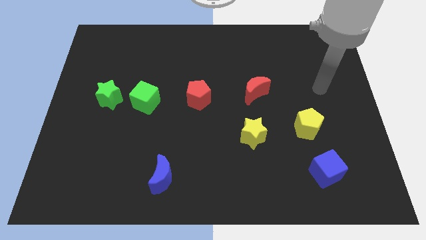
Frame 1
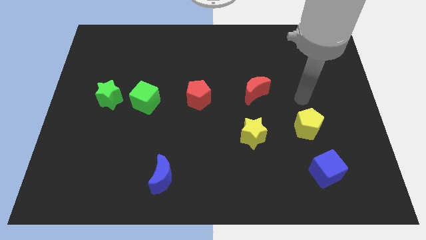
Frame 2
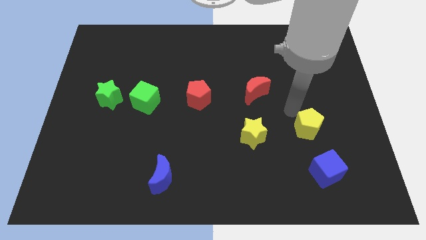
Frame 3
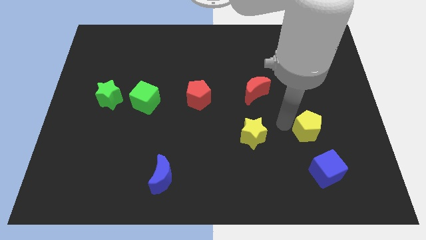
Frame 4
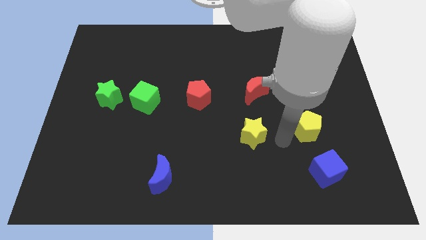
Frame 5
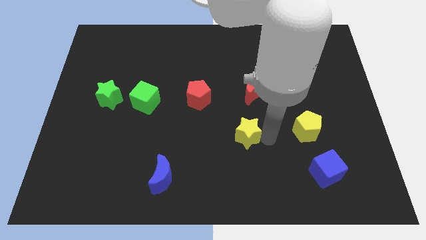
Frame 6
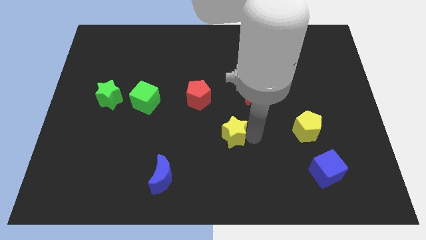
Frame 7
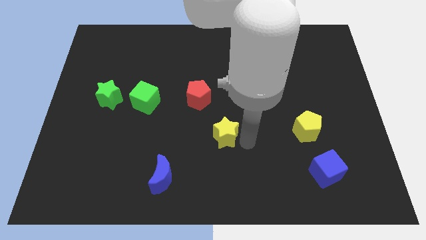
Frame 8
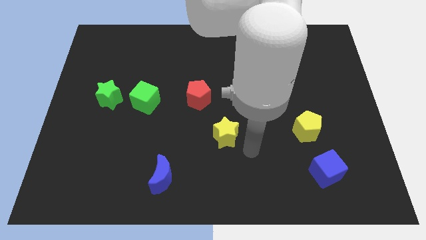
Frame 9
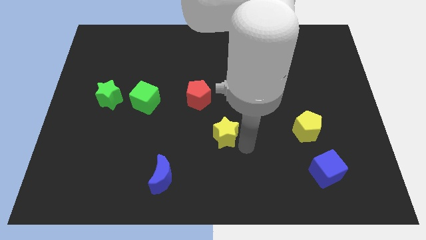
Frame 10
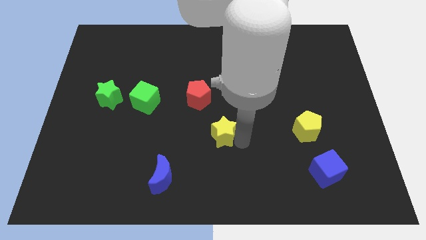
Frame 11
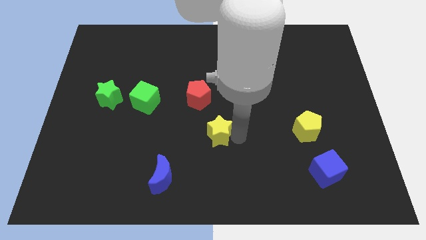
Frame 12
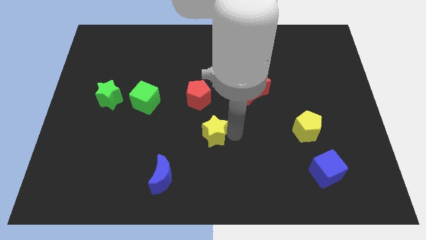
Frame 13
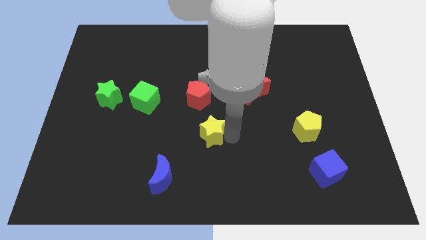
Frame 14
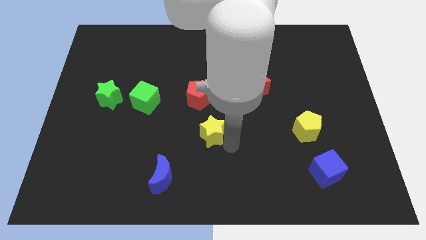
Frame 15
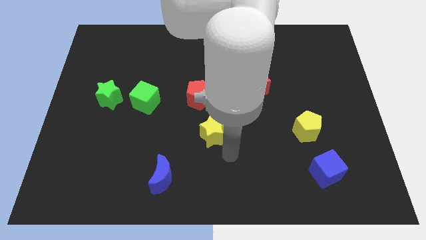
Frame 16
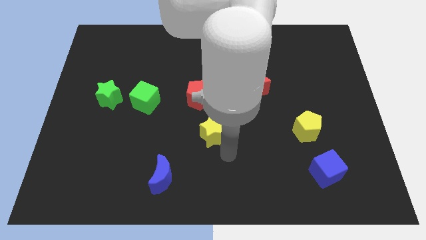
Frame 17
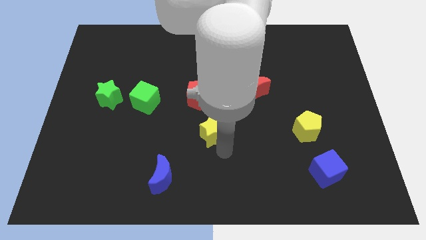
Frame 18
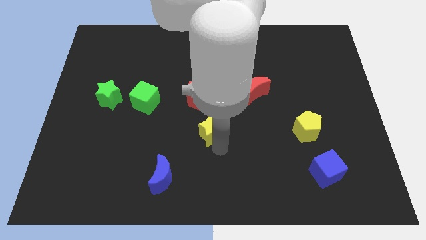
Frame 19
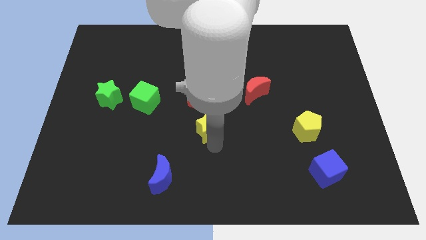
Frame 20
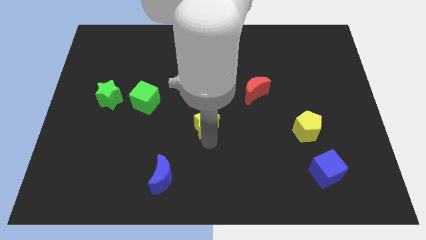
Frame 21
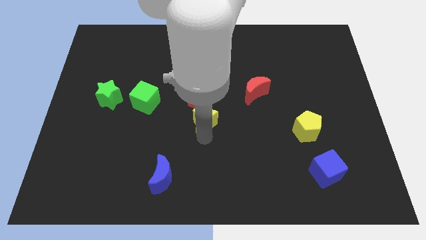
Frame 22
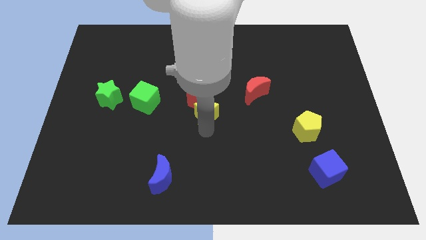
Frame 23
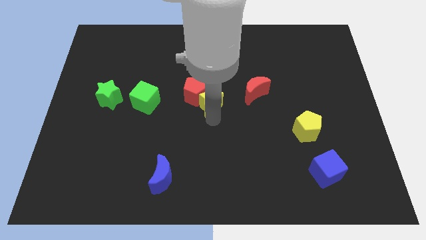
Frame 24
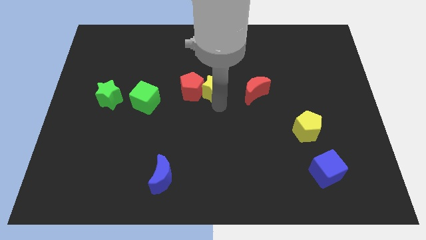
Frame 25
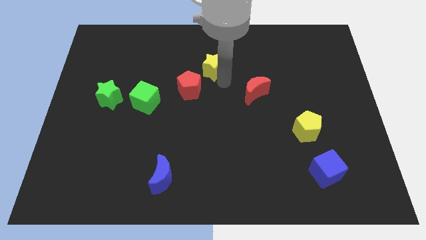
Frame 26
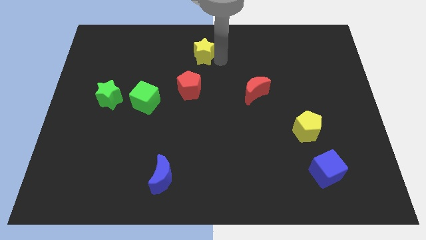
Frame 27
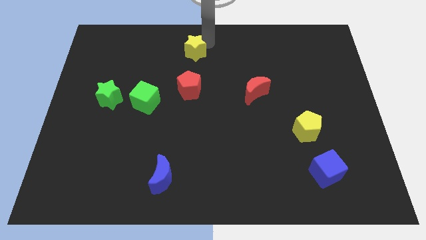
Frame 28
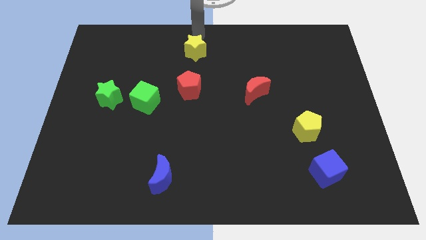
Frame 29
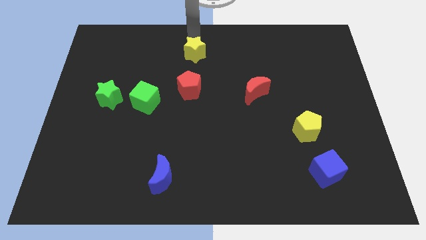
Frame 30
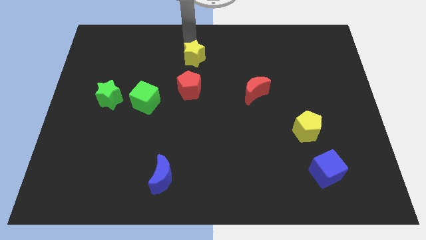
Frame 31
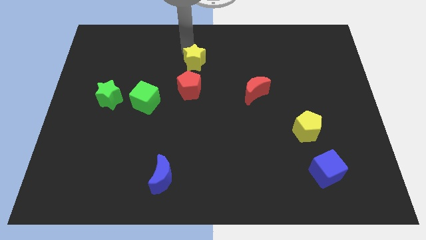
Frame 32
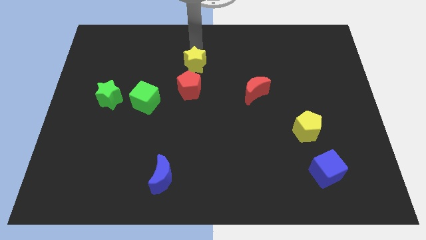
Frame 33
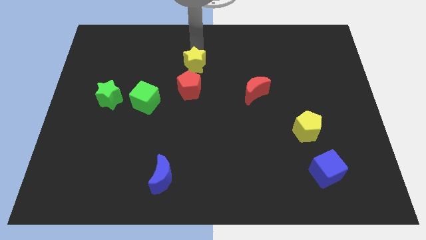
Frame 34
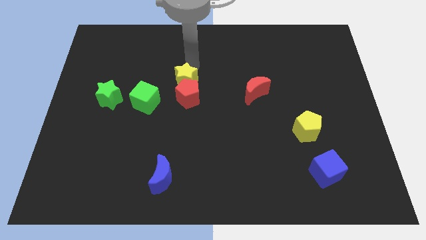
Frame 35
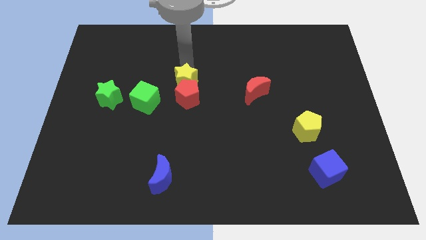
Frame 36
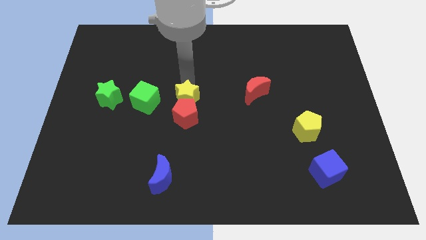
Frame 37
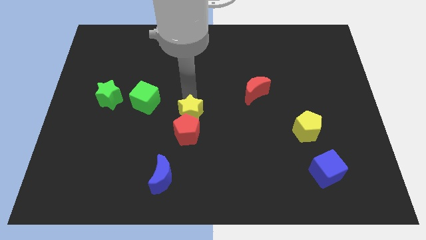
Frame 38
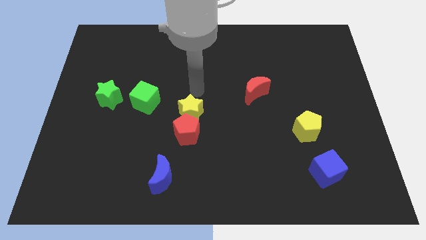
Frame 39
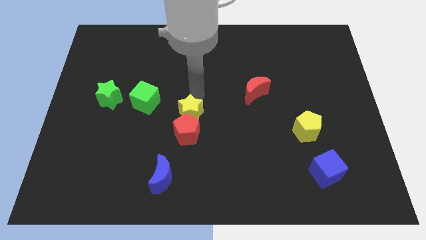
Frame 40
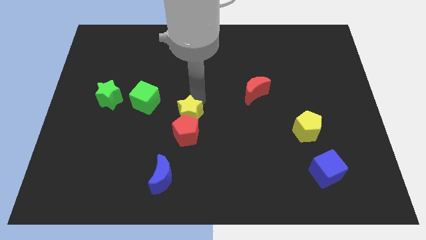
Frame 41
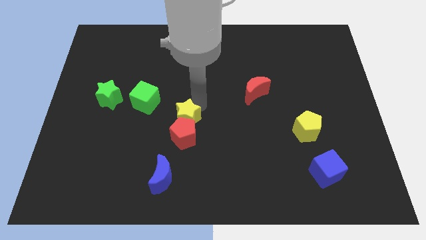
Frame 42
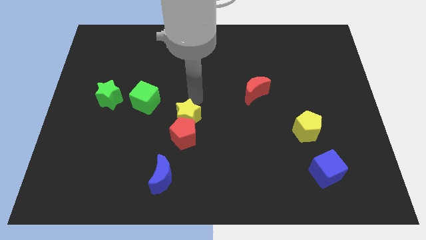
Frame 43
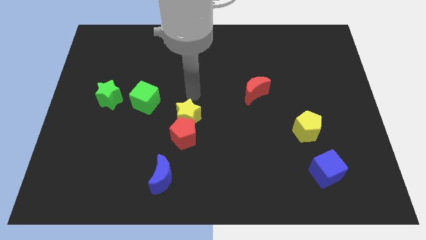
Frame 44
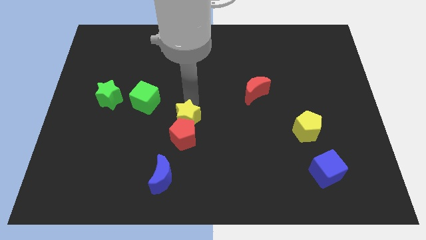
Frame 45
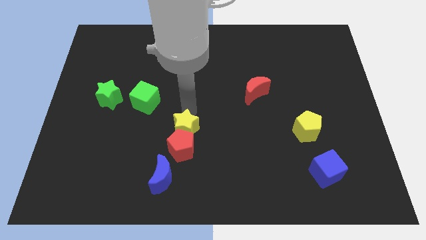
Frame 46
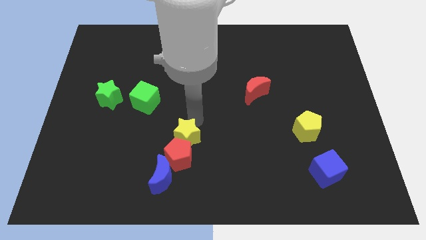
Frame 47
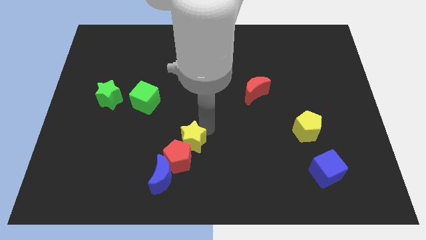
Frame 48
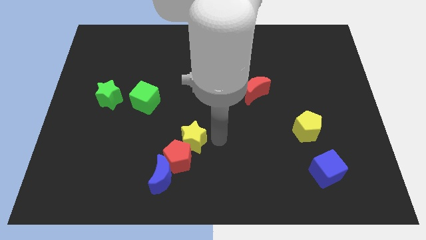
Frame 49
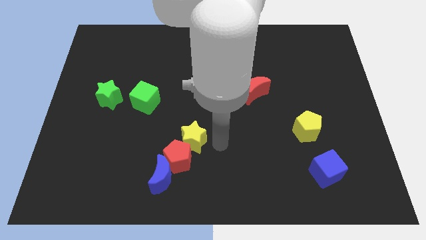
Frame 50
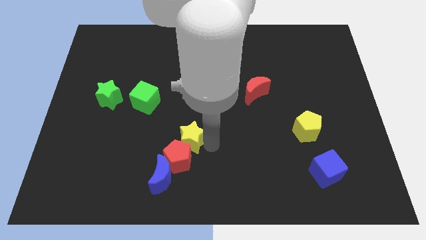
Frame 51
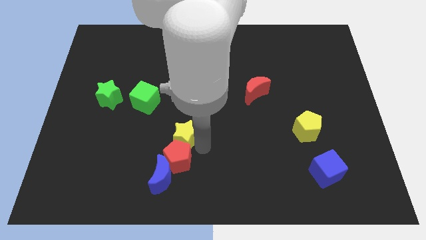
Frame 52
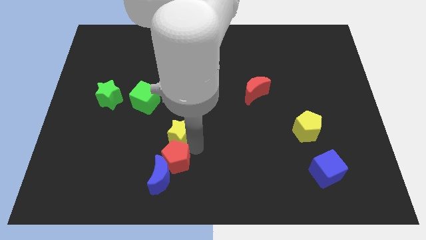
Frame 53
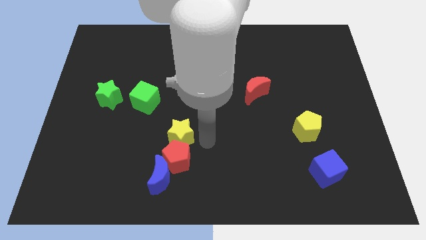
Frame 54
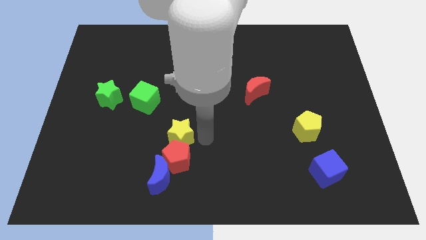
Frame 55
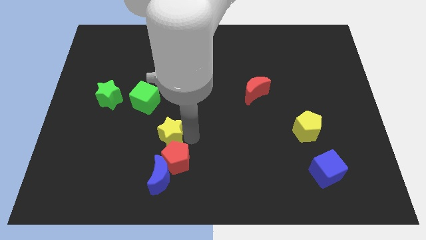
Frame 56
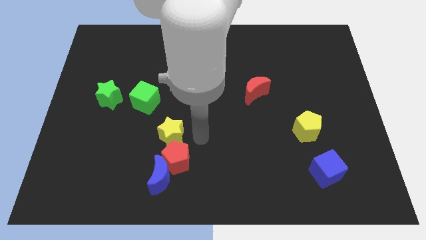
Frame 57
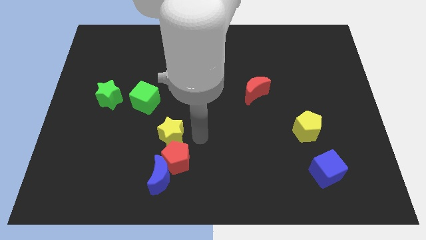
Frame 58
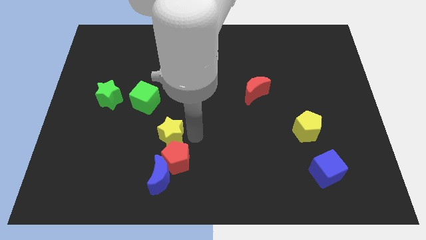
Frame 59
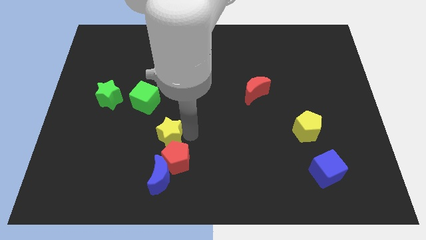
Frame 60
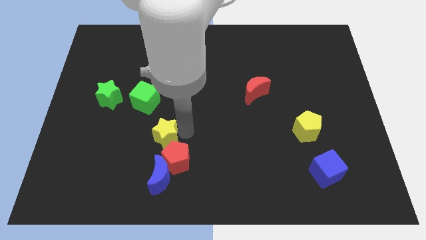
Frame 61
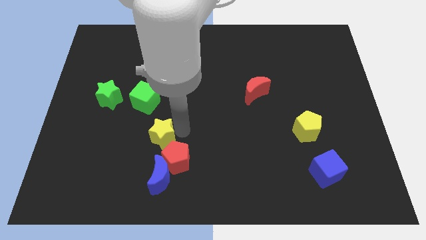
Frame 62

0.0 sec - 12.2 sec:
push the yellow star to the left

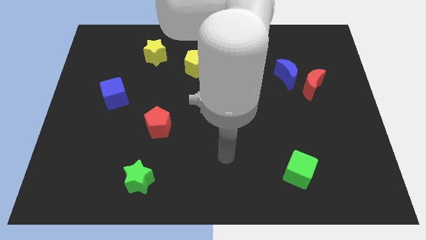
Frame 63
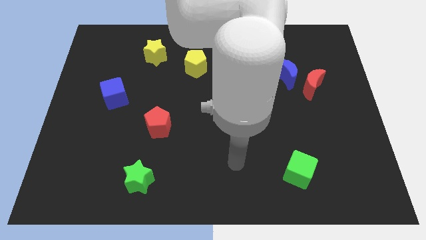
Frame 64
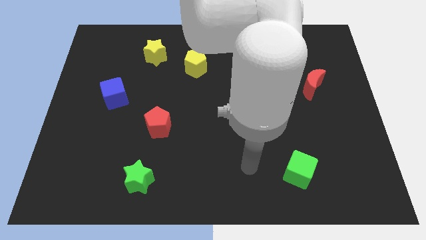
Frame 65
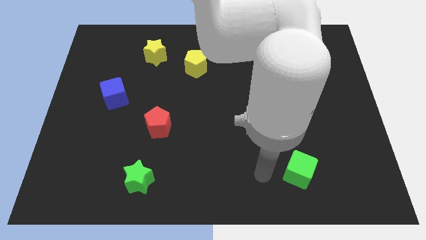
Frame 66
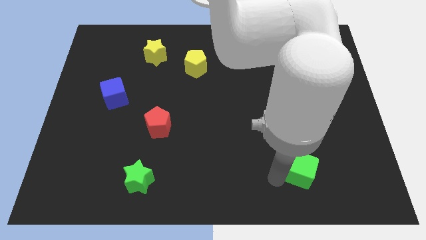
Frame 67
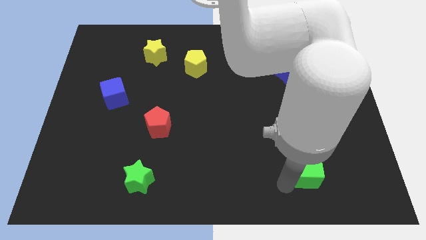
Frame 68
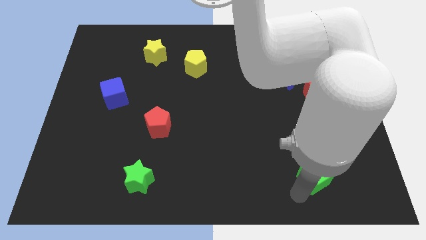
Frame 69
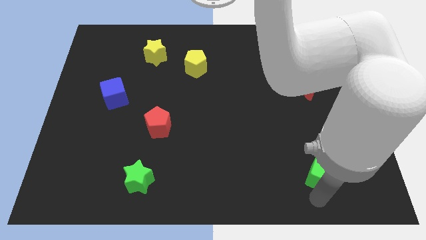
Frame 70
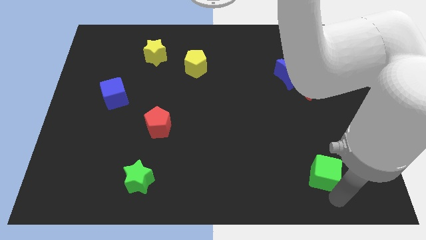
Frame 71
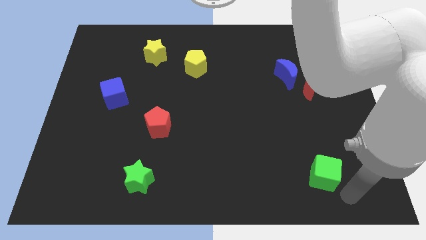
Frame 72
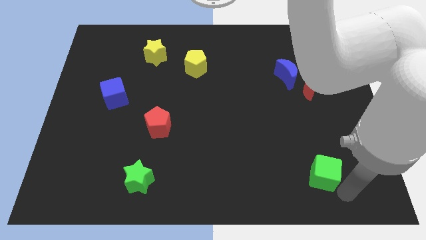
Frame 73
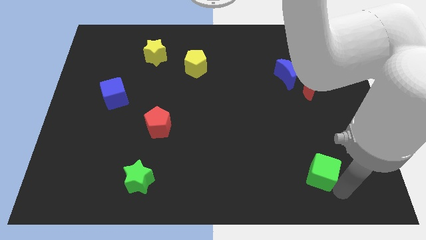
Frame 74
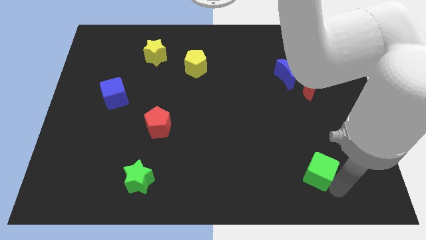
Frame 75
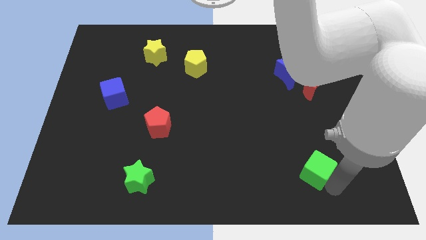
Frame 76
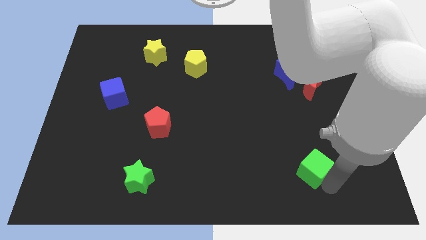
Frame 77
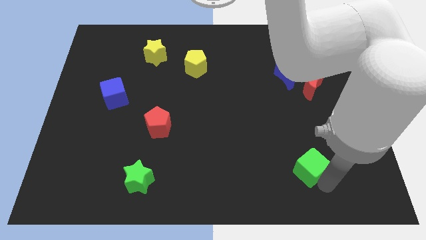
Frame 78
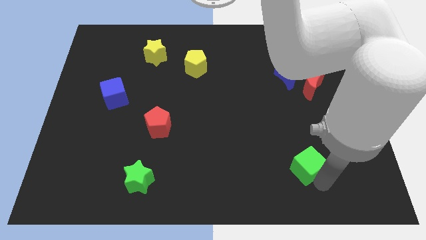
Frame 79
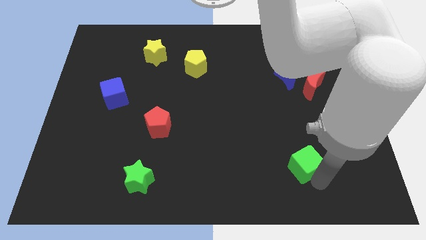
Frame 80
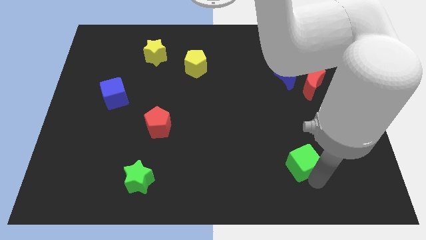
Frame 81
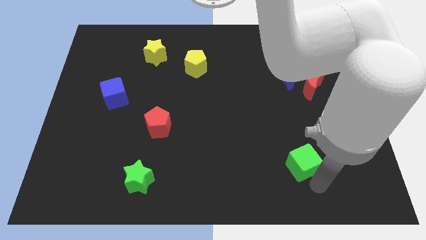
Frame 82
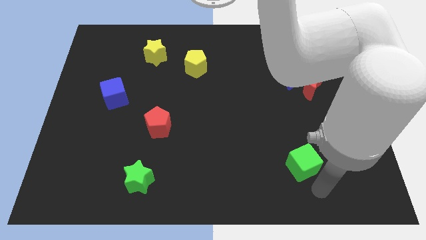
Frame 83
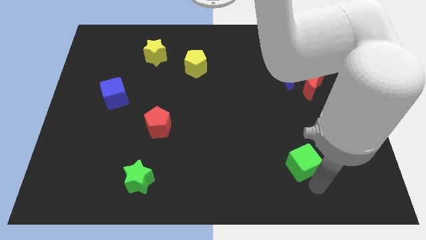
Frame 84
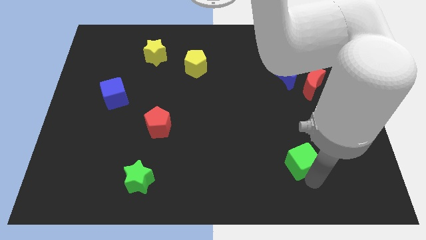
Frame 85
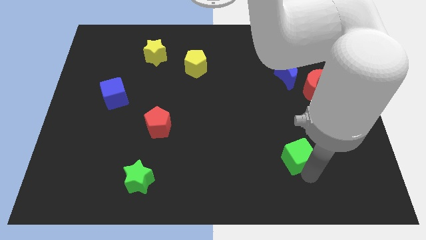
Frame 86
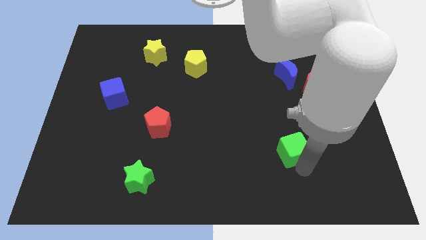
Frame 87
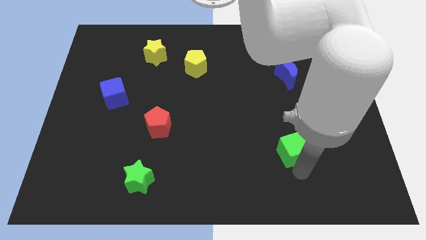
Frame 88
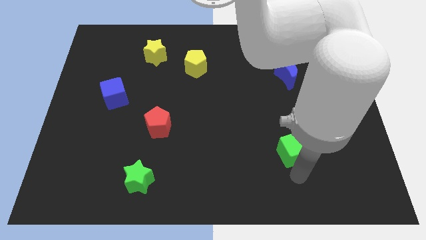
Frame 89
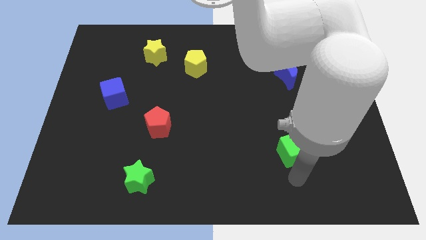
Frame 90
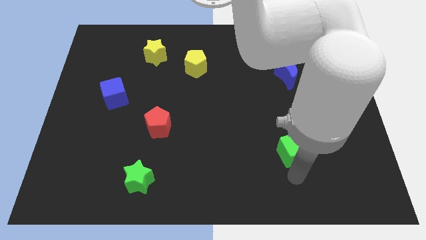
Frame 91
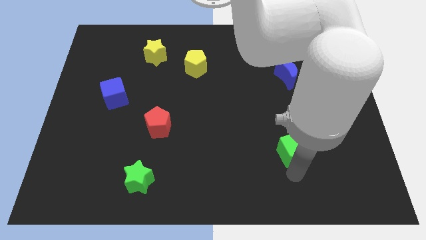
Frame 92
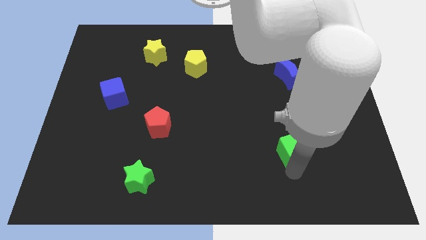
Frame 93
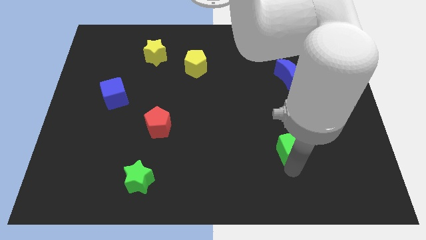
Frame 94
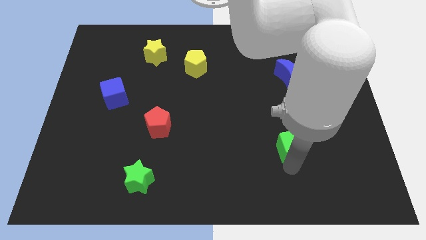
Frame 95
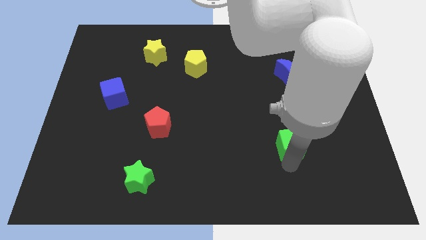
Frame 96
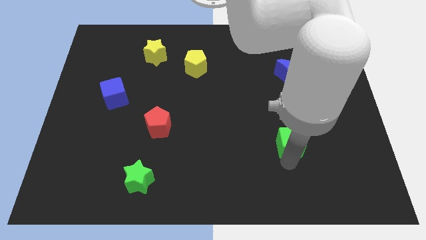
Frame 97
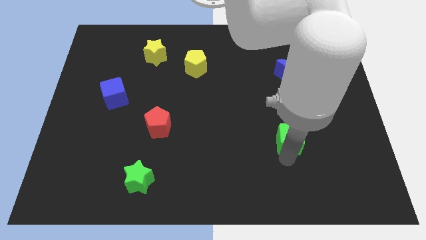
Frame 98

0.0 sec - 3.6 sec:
move the green cube a bit up
